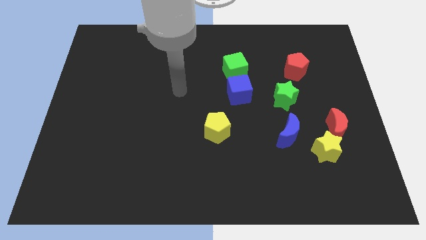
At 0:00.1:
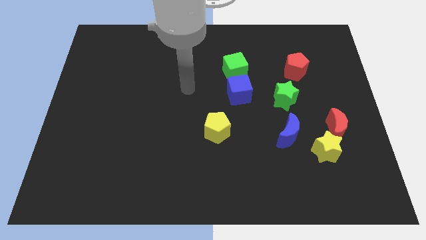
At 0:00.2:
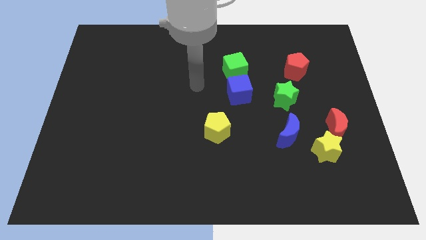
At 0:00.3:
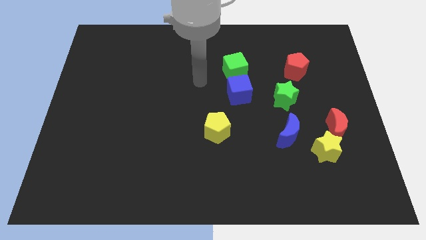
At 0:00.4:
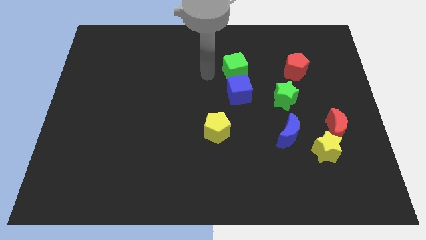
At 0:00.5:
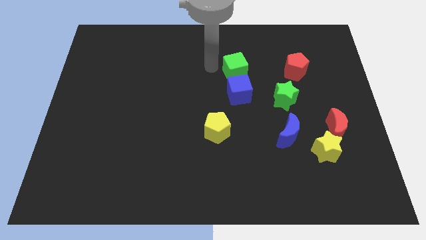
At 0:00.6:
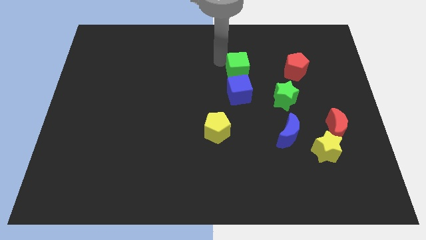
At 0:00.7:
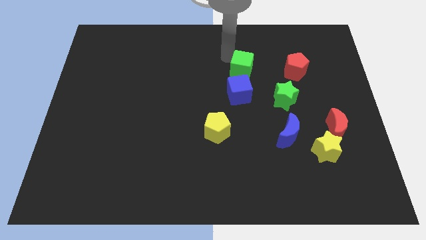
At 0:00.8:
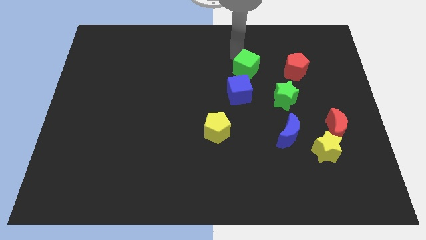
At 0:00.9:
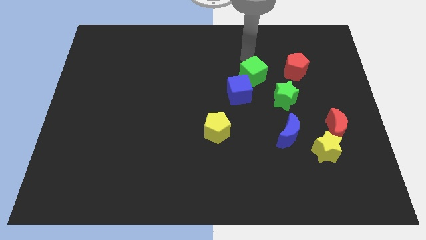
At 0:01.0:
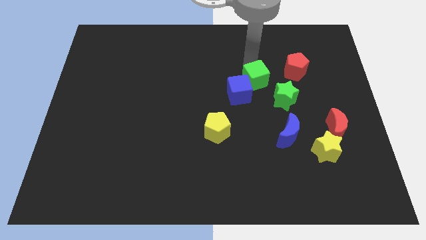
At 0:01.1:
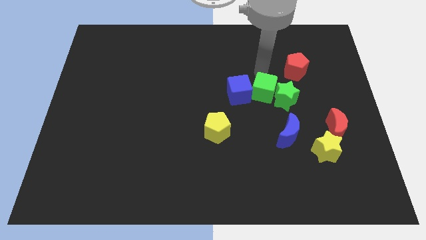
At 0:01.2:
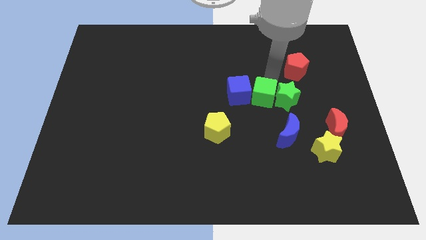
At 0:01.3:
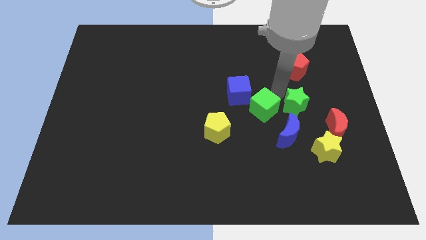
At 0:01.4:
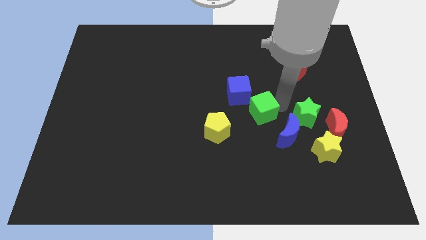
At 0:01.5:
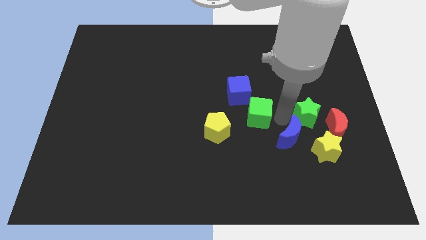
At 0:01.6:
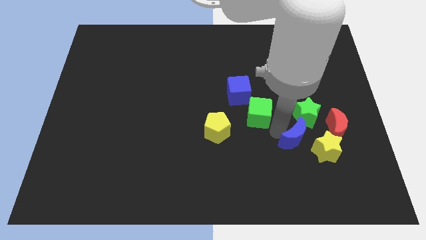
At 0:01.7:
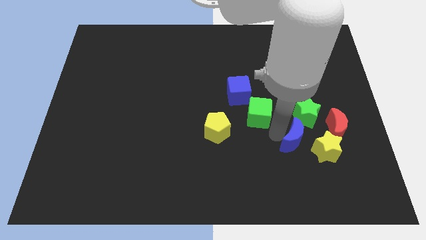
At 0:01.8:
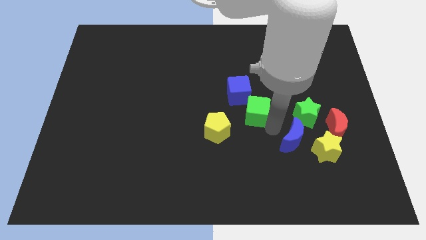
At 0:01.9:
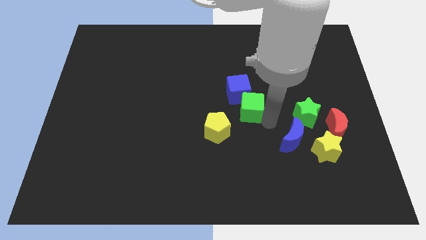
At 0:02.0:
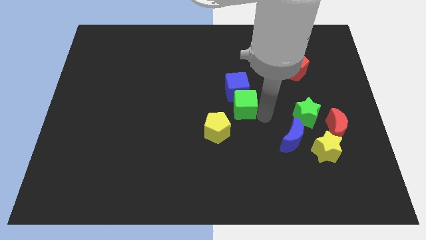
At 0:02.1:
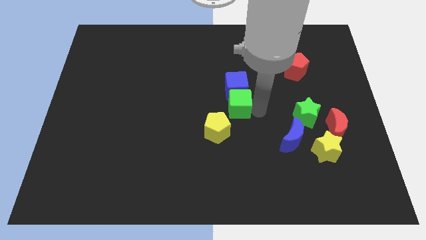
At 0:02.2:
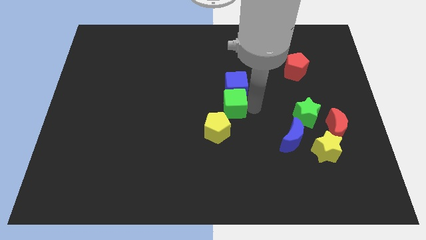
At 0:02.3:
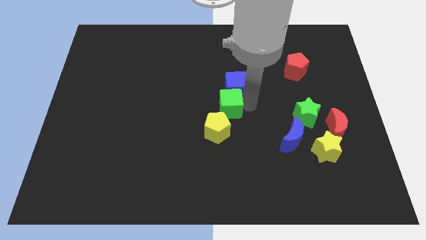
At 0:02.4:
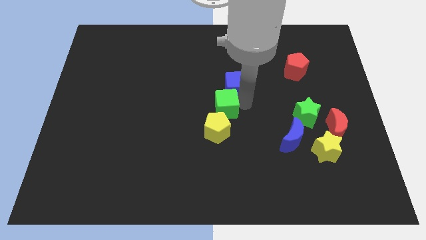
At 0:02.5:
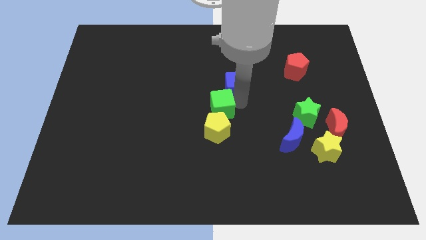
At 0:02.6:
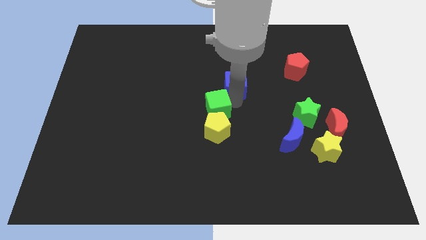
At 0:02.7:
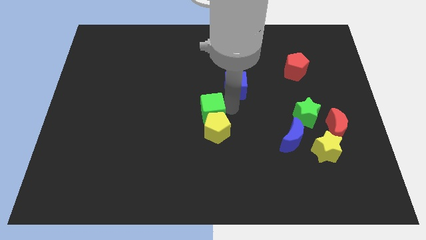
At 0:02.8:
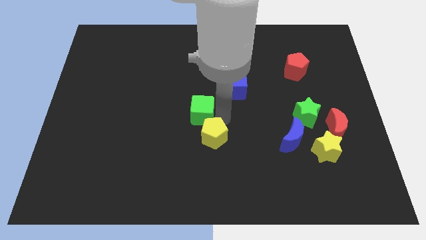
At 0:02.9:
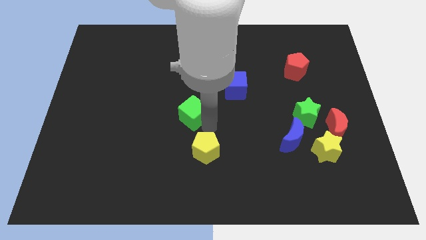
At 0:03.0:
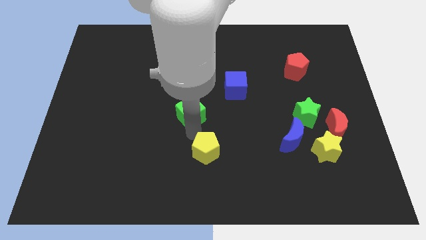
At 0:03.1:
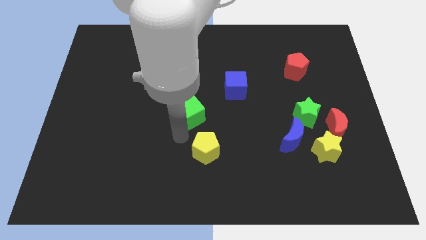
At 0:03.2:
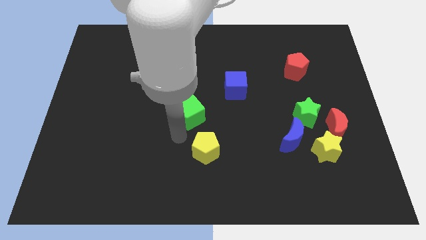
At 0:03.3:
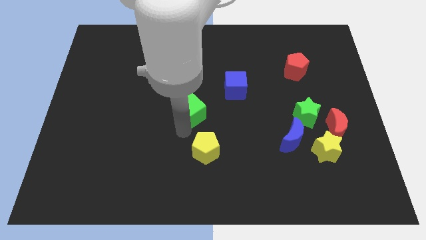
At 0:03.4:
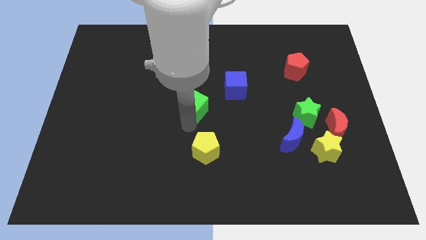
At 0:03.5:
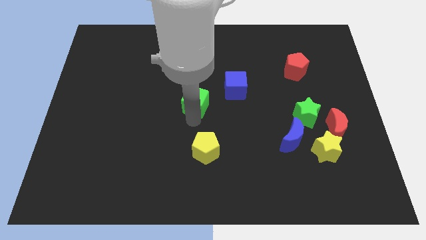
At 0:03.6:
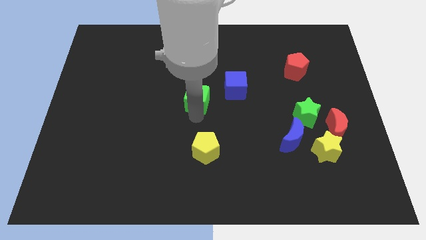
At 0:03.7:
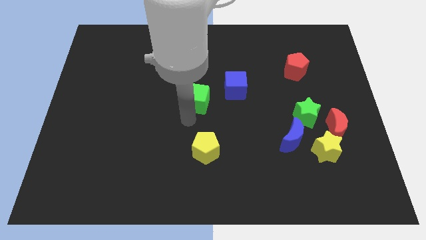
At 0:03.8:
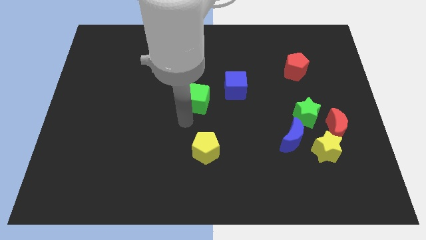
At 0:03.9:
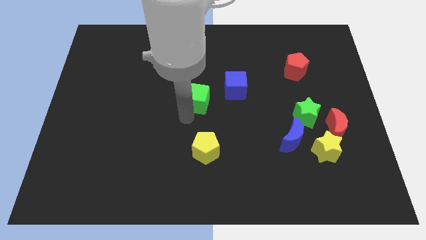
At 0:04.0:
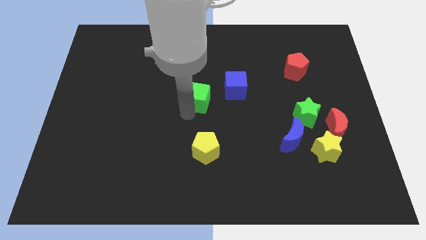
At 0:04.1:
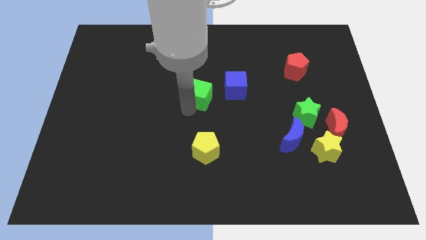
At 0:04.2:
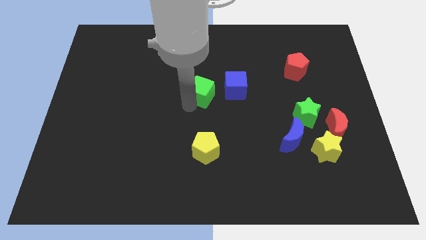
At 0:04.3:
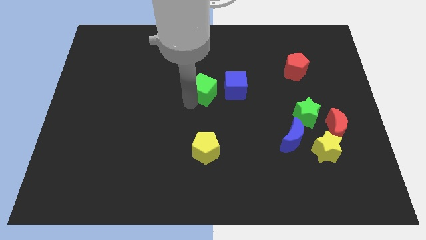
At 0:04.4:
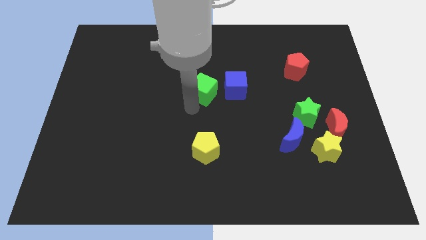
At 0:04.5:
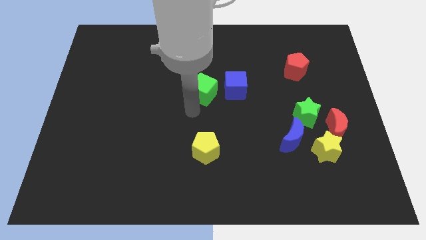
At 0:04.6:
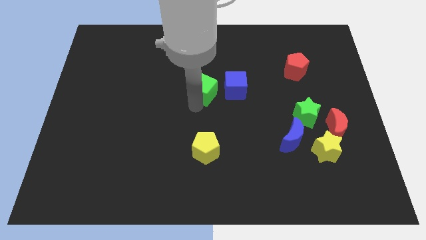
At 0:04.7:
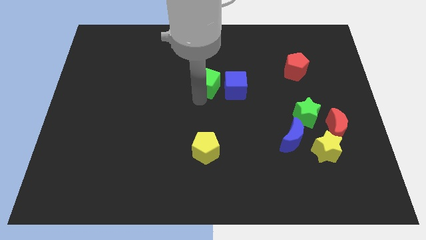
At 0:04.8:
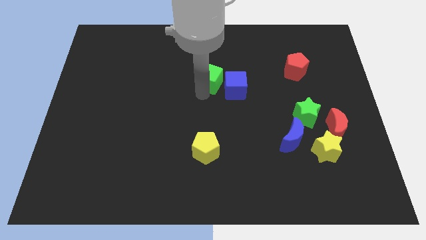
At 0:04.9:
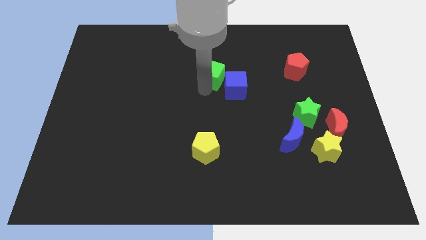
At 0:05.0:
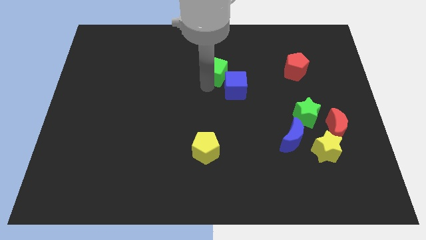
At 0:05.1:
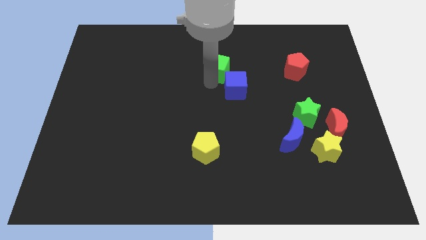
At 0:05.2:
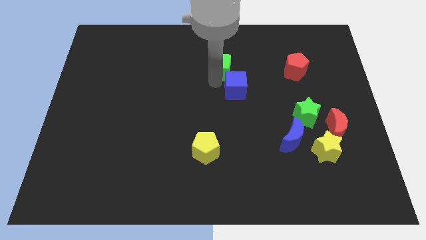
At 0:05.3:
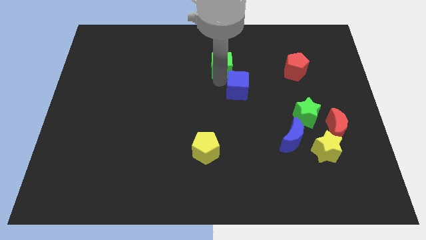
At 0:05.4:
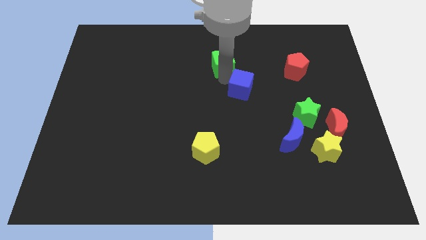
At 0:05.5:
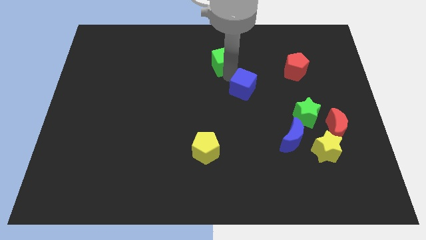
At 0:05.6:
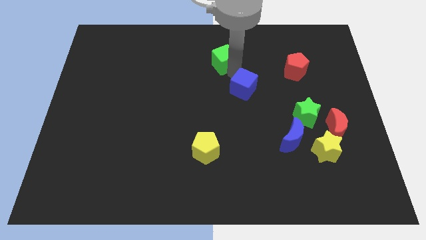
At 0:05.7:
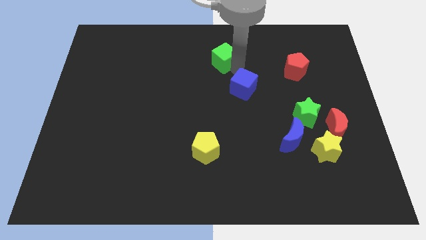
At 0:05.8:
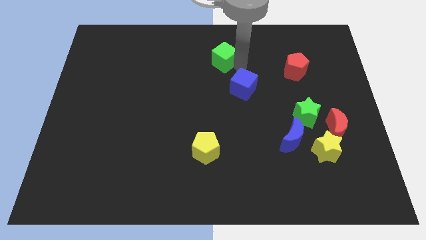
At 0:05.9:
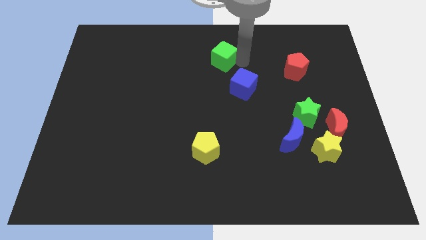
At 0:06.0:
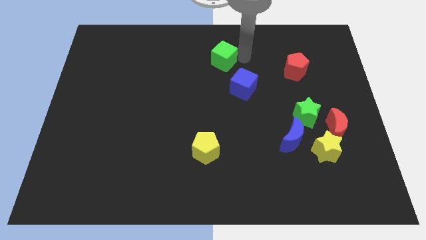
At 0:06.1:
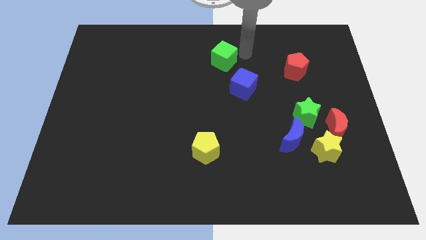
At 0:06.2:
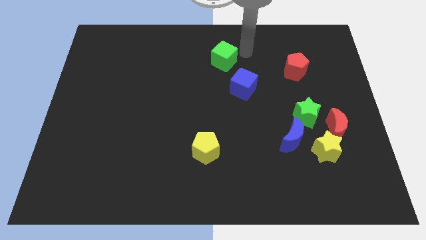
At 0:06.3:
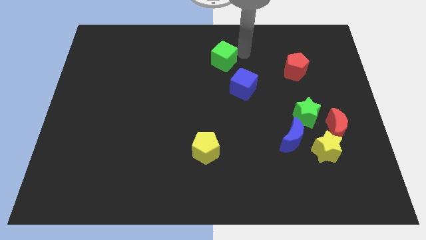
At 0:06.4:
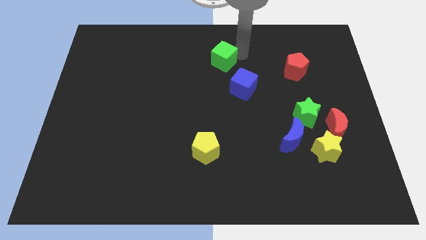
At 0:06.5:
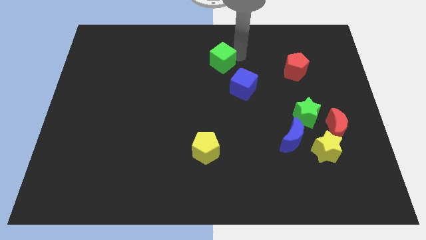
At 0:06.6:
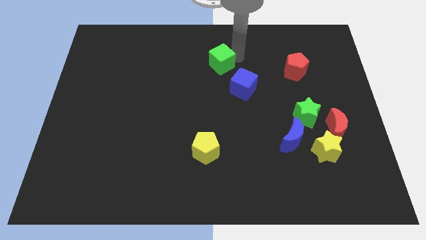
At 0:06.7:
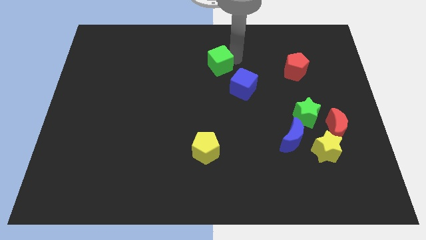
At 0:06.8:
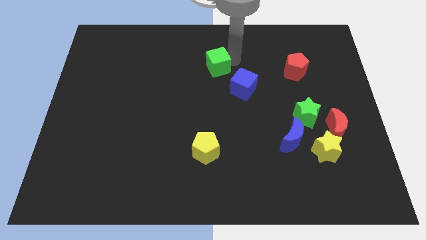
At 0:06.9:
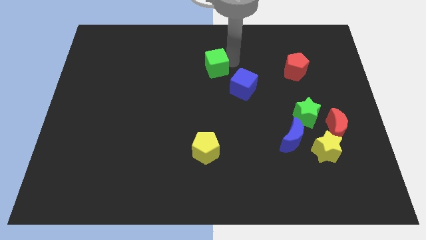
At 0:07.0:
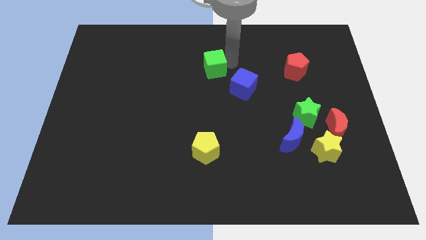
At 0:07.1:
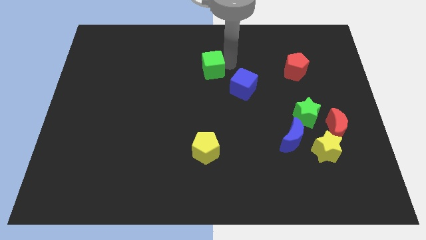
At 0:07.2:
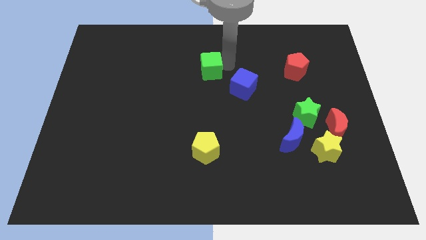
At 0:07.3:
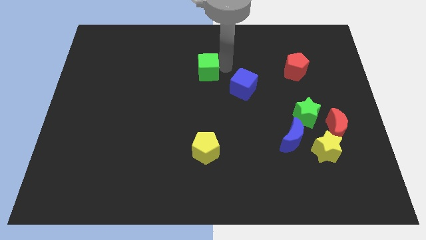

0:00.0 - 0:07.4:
slide the green cube somewhat to the left

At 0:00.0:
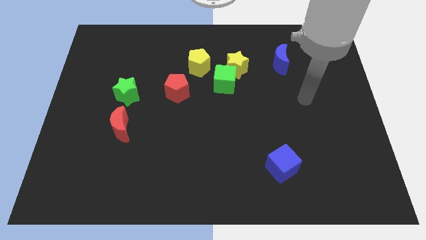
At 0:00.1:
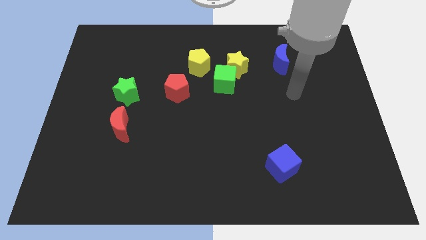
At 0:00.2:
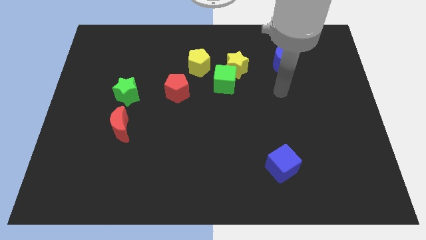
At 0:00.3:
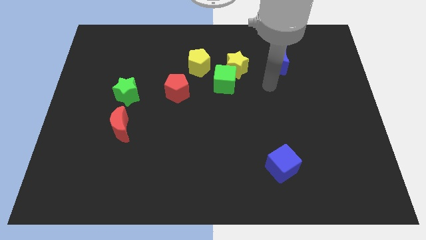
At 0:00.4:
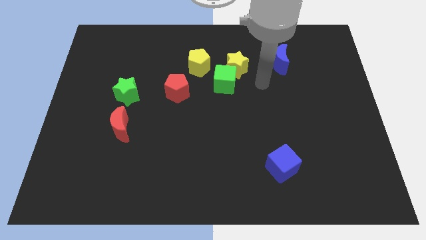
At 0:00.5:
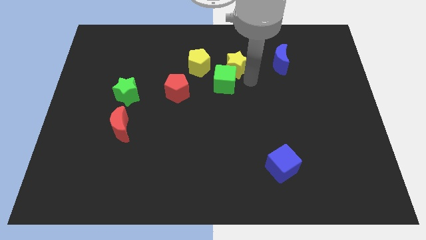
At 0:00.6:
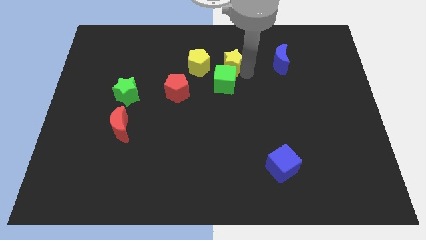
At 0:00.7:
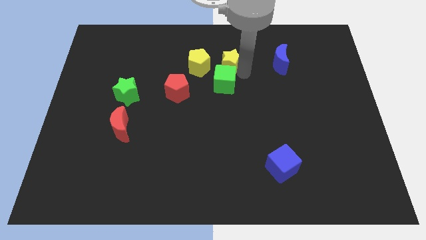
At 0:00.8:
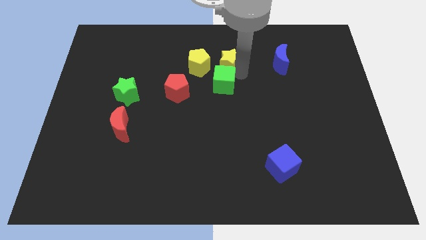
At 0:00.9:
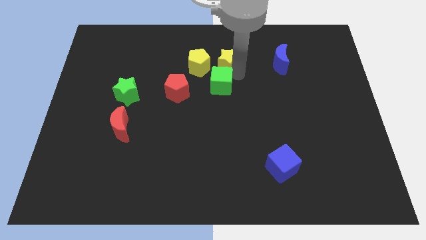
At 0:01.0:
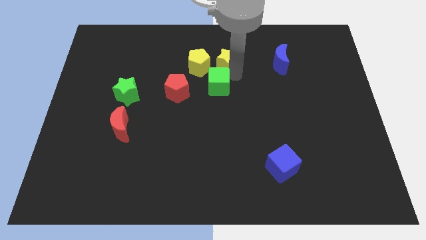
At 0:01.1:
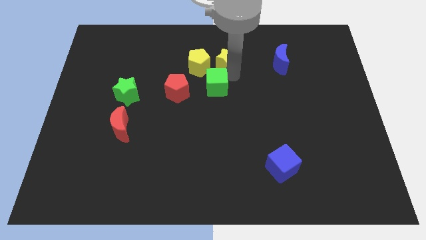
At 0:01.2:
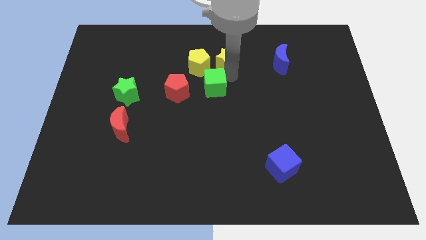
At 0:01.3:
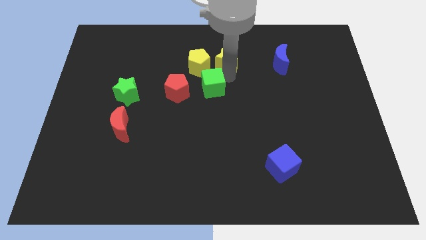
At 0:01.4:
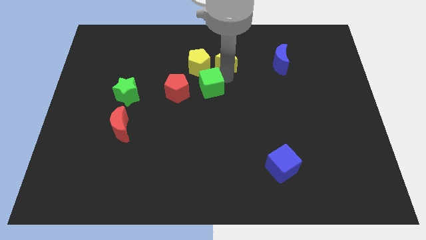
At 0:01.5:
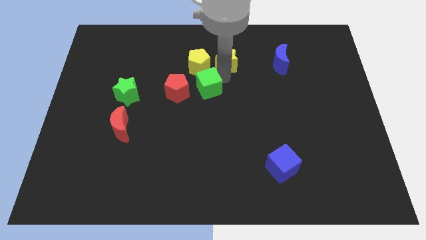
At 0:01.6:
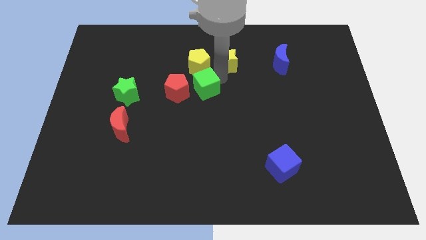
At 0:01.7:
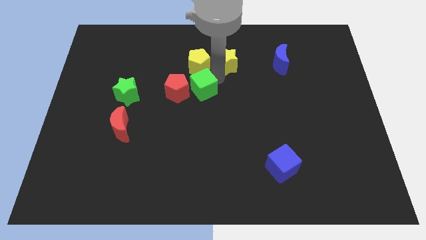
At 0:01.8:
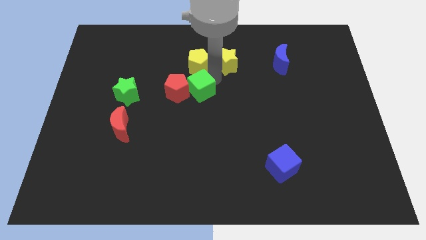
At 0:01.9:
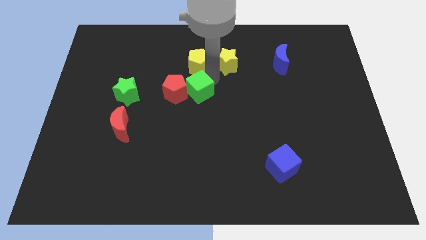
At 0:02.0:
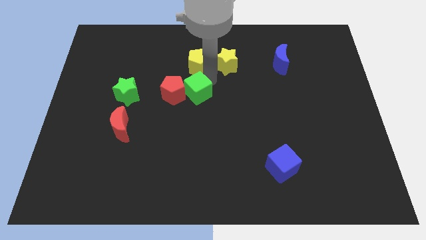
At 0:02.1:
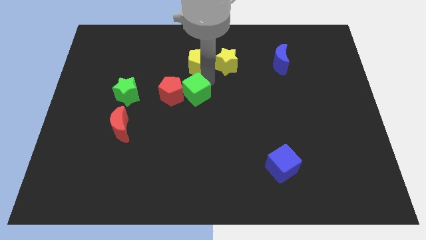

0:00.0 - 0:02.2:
slightly slide the green cube downwards and to the left diagonally
